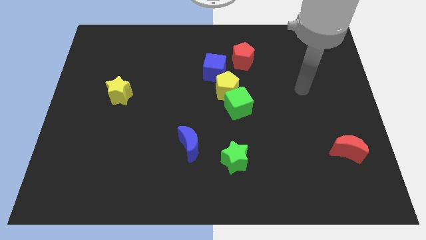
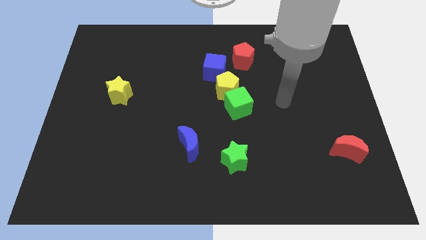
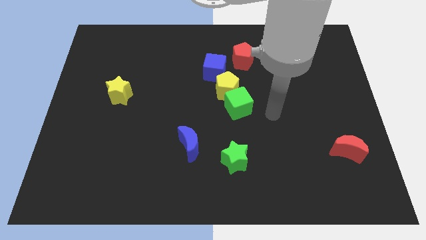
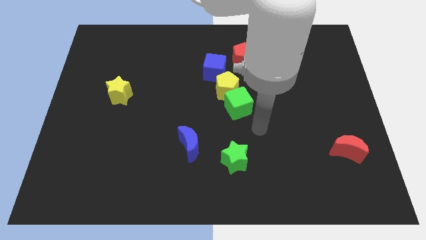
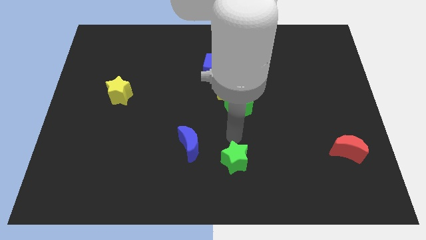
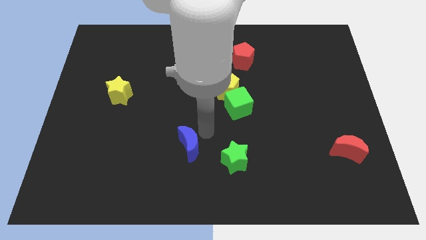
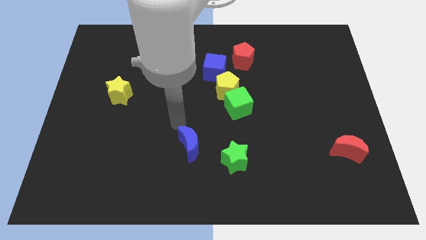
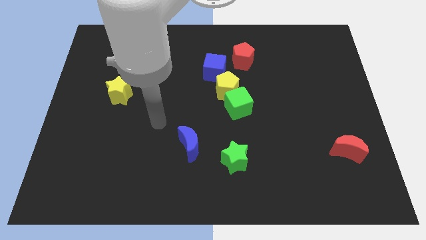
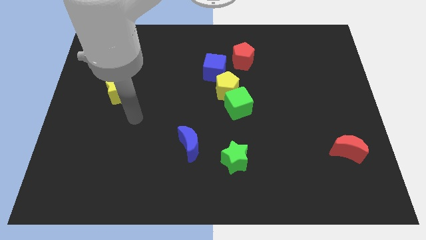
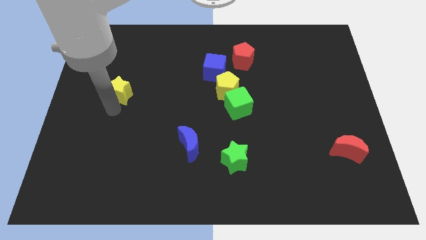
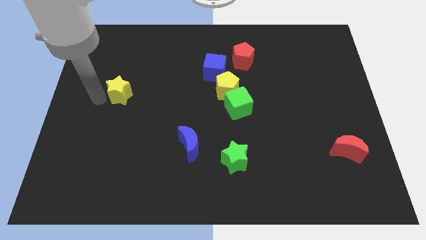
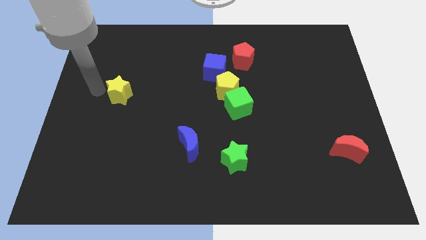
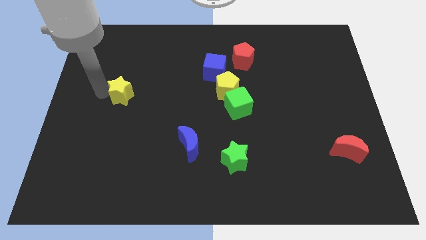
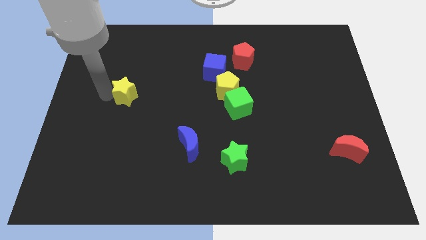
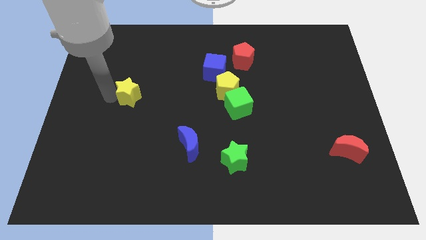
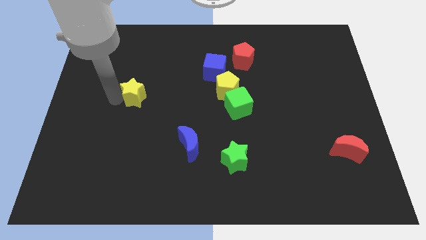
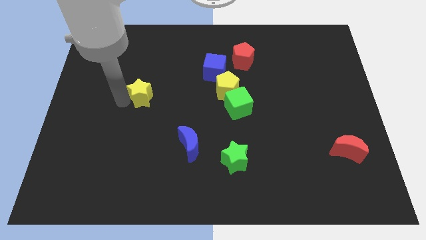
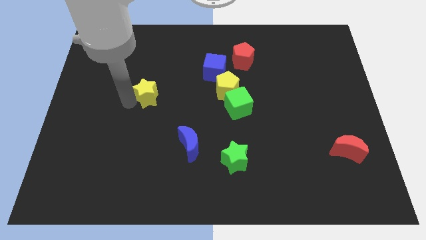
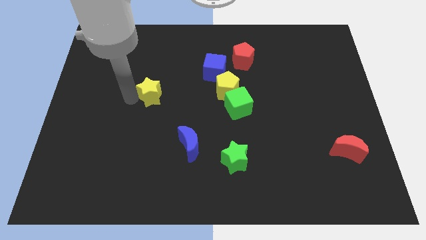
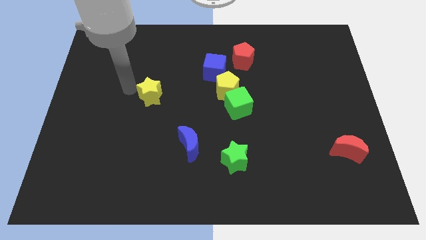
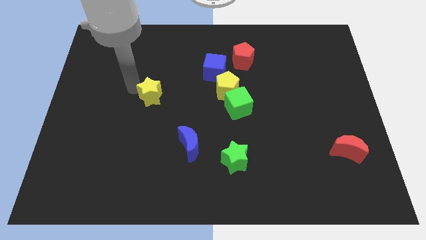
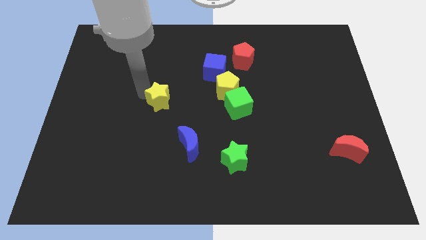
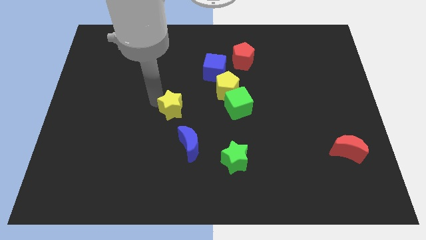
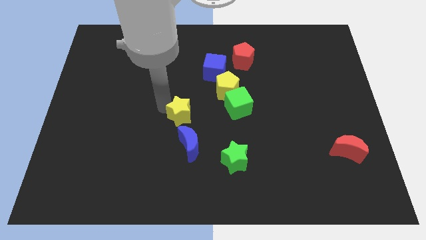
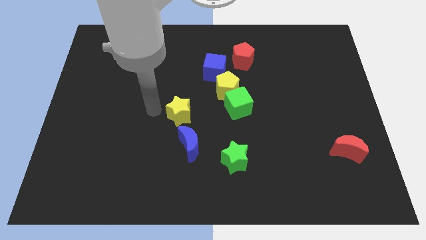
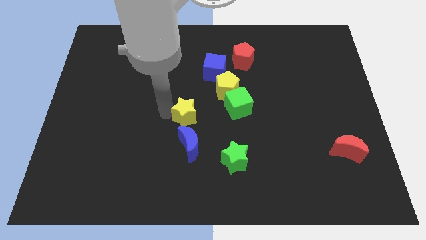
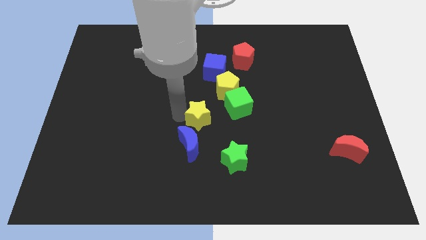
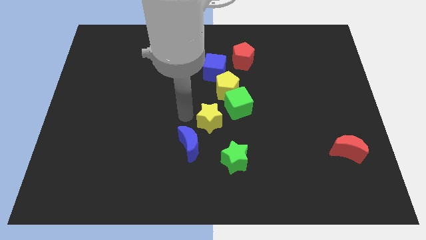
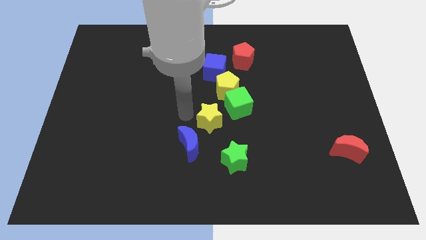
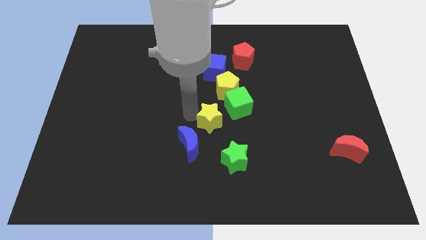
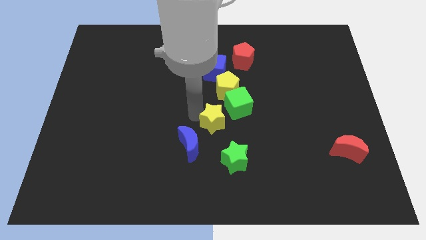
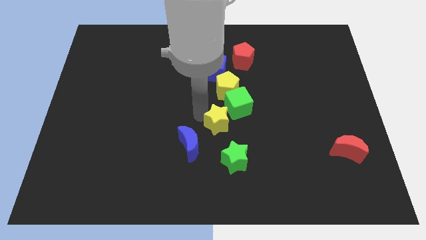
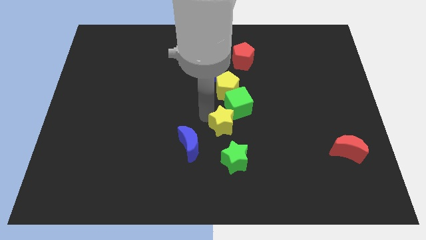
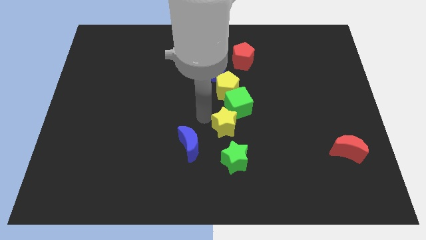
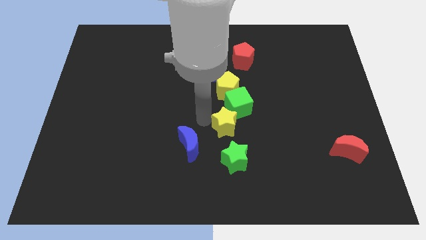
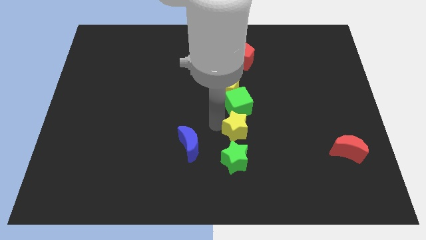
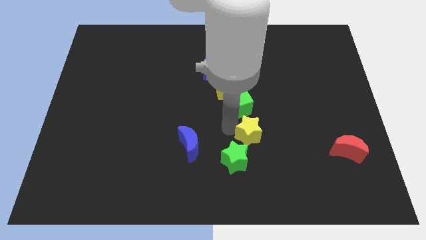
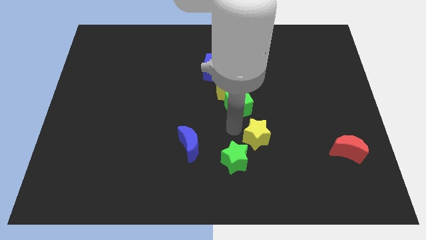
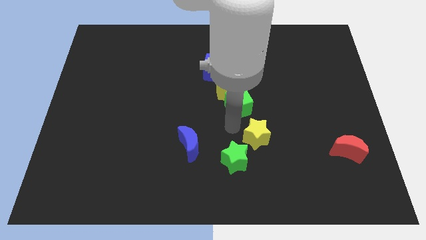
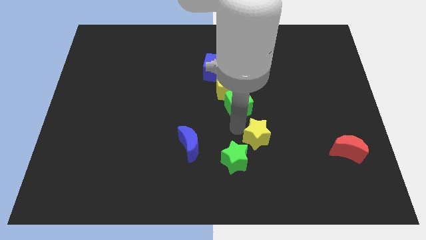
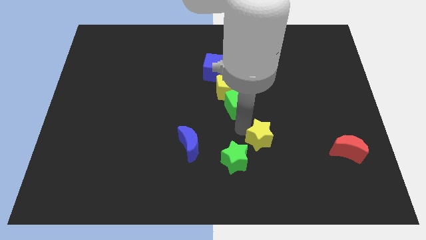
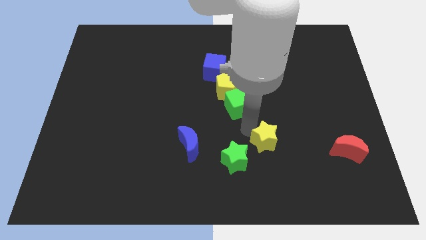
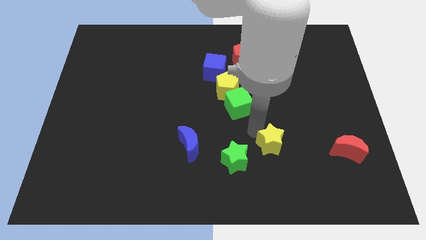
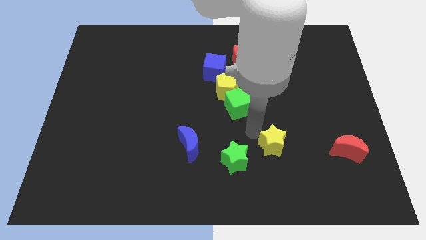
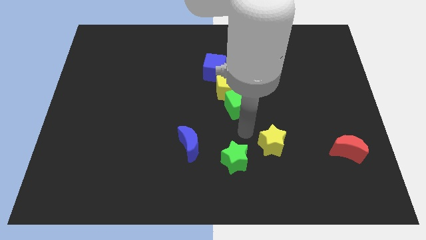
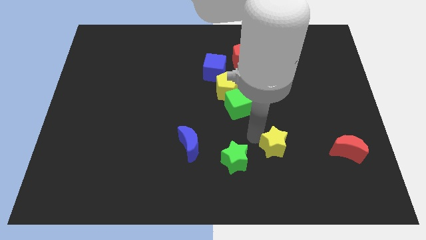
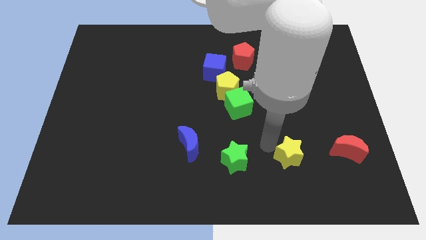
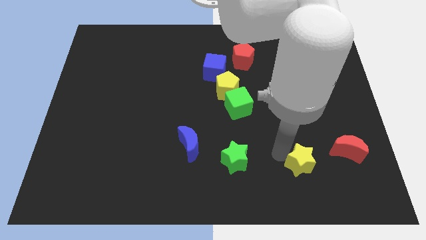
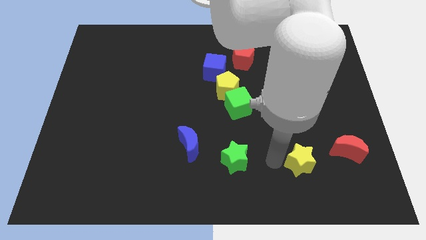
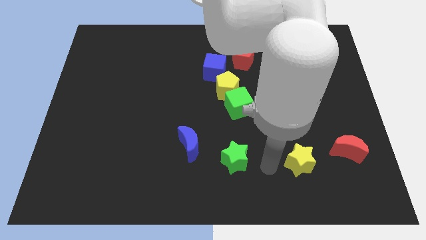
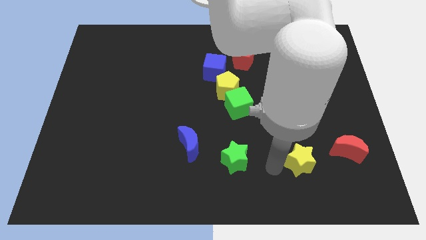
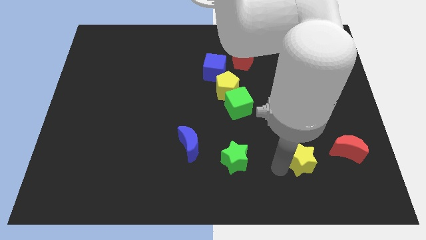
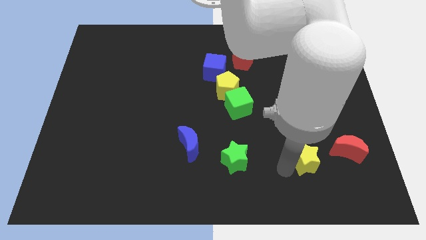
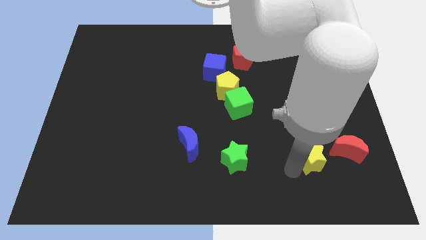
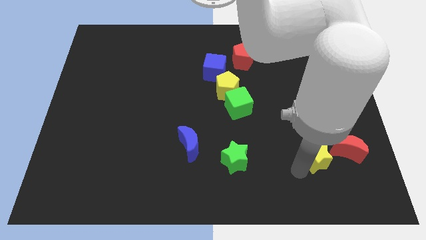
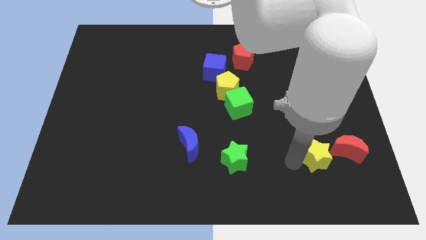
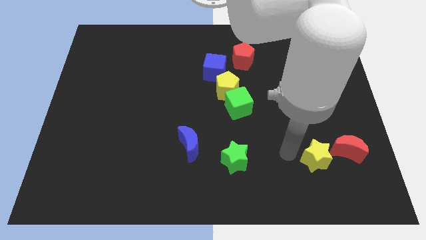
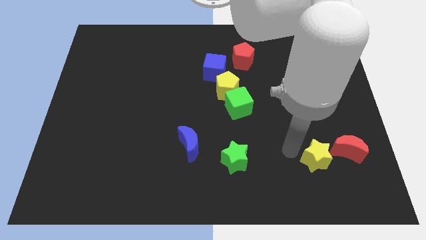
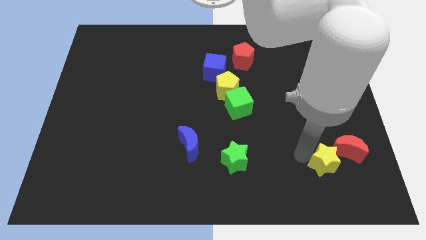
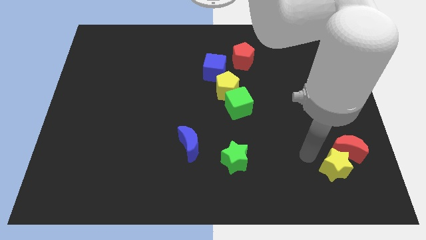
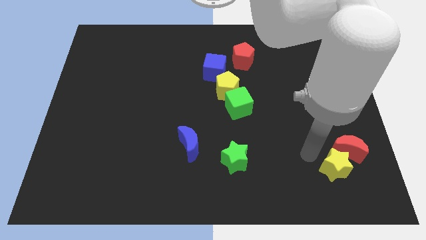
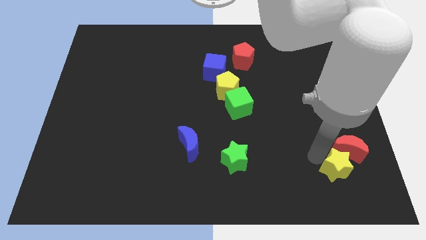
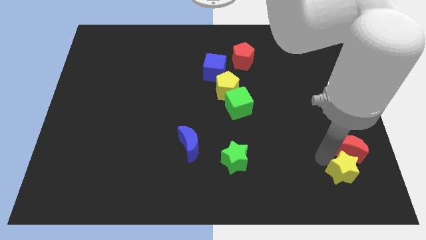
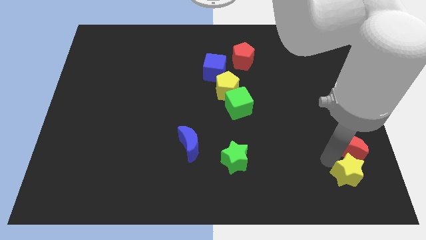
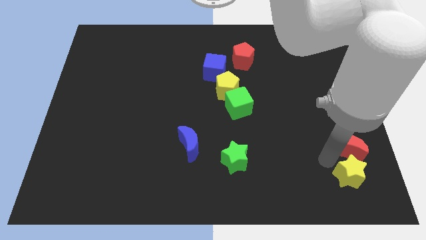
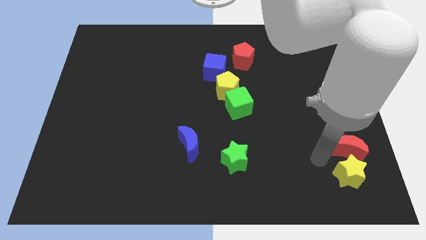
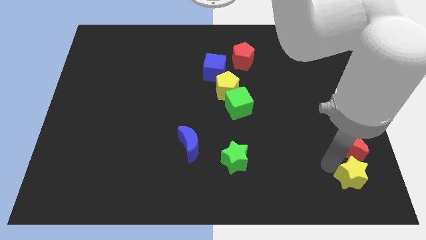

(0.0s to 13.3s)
push the yellow star to the bottom right of the board
